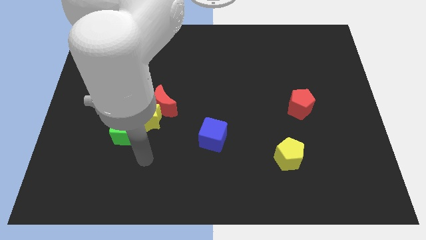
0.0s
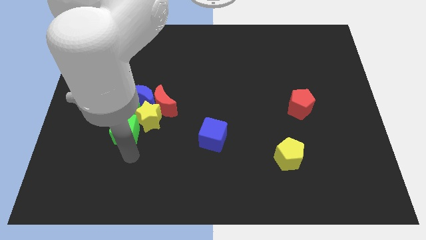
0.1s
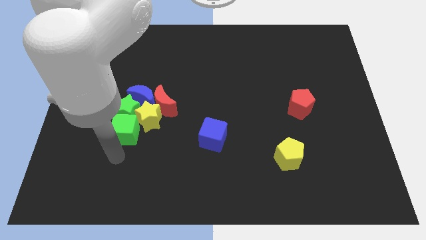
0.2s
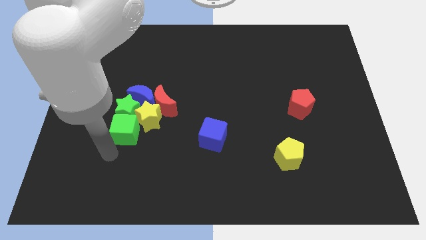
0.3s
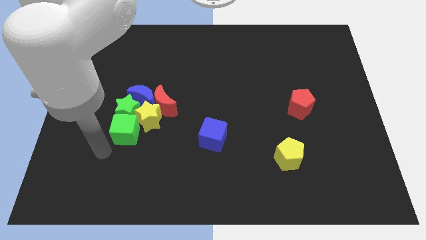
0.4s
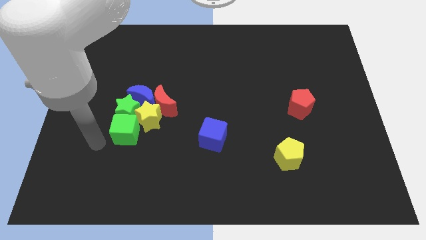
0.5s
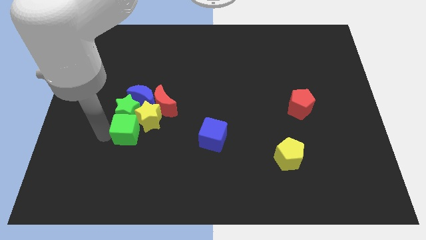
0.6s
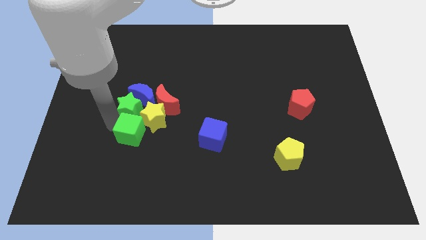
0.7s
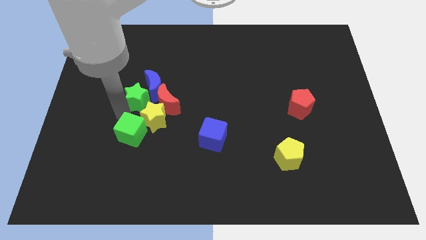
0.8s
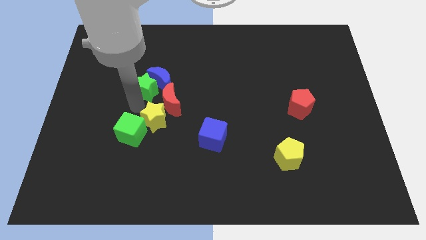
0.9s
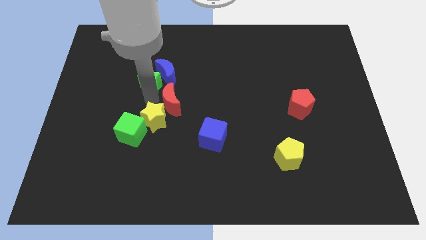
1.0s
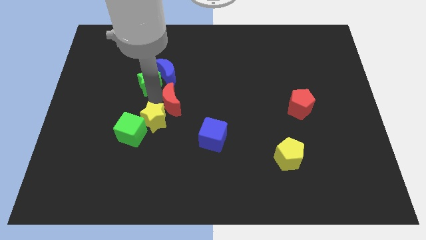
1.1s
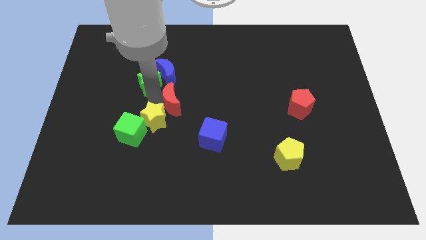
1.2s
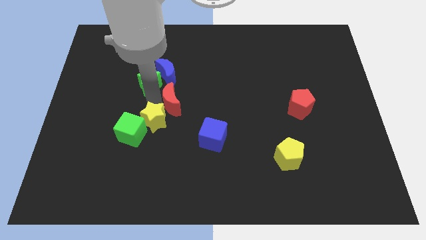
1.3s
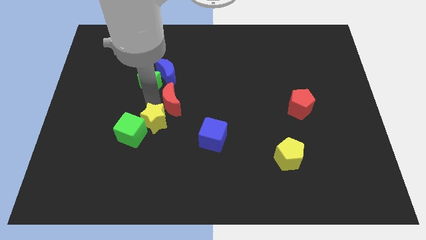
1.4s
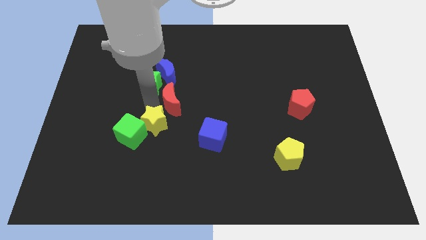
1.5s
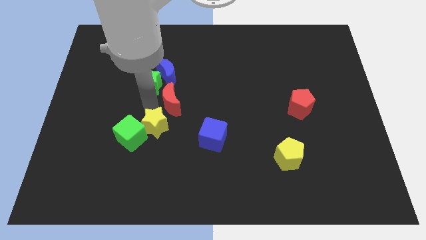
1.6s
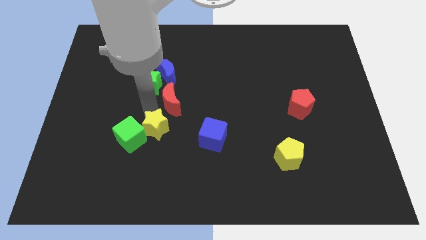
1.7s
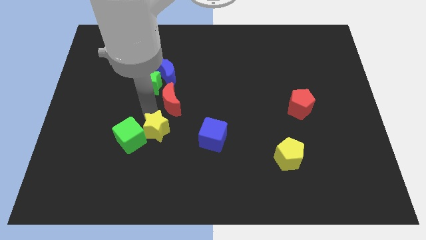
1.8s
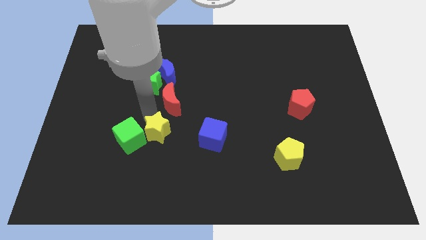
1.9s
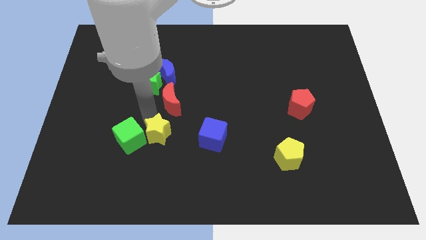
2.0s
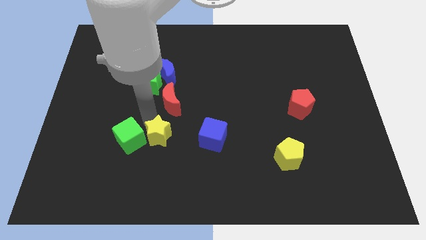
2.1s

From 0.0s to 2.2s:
move the yellow star away from the group of blocks

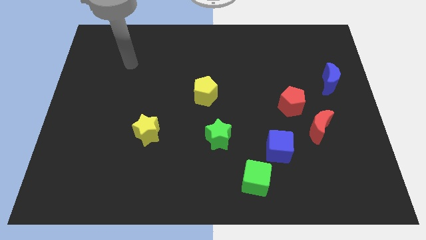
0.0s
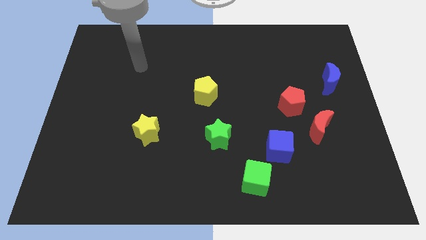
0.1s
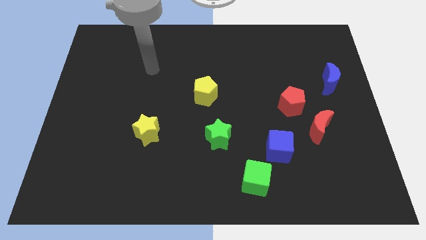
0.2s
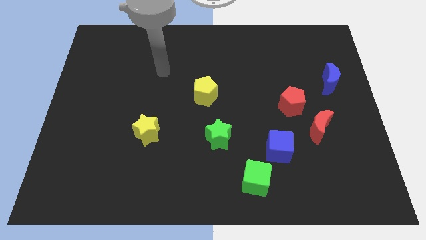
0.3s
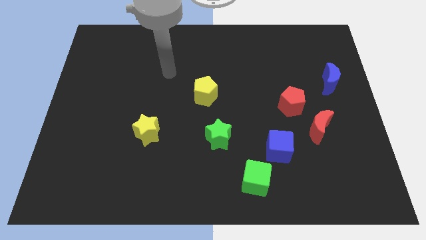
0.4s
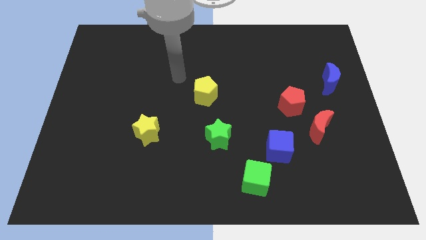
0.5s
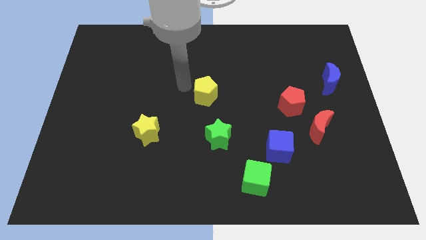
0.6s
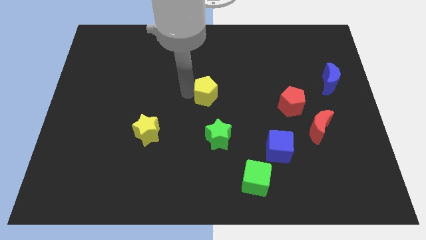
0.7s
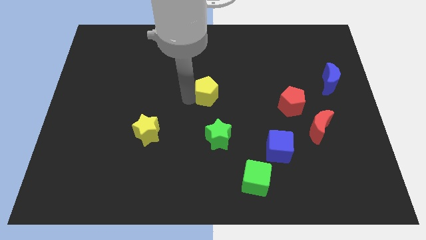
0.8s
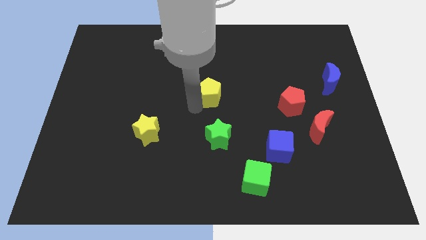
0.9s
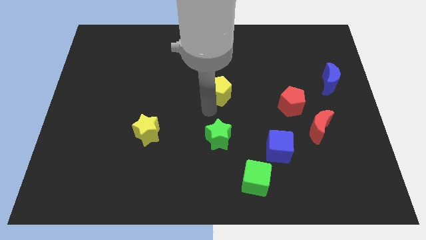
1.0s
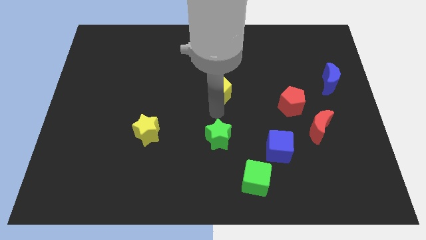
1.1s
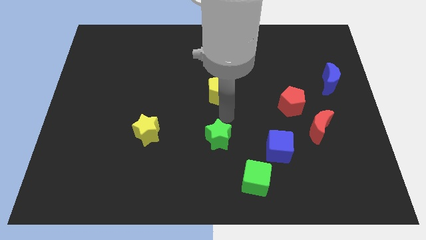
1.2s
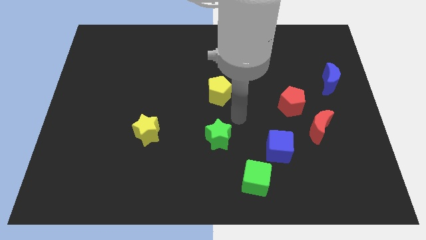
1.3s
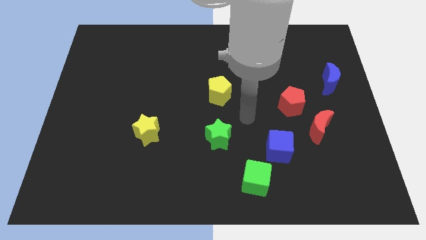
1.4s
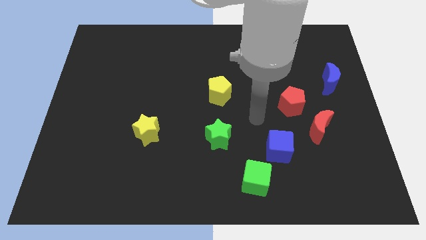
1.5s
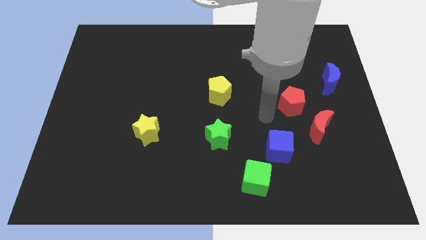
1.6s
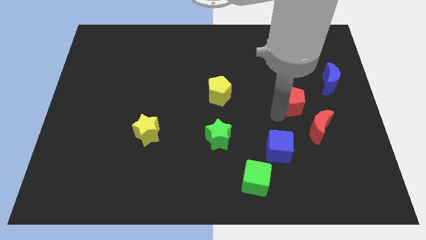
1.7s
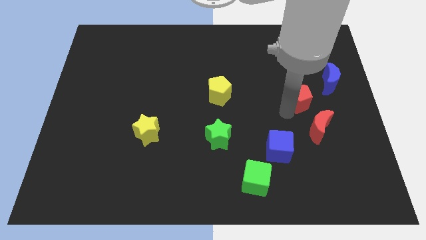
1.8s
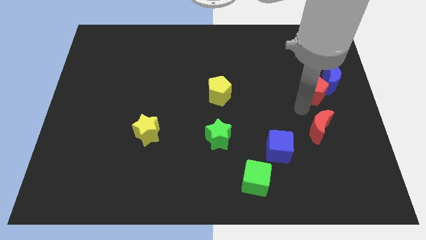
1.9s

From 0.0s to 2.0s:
separate the red moon from the red pentagon

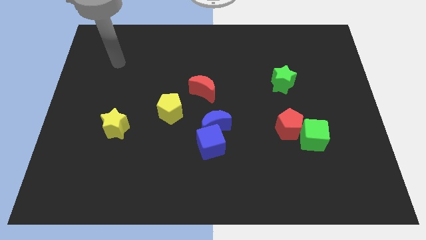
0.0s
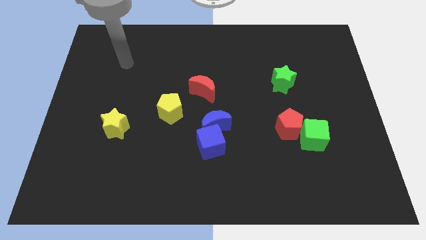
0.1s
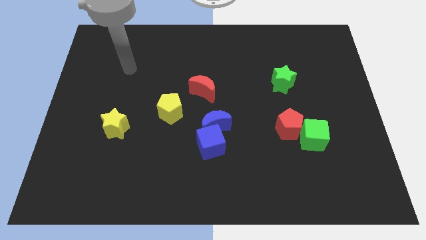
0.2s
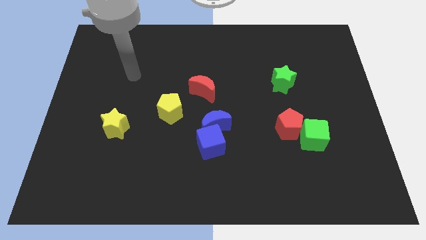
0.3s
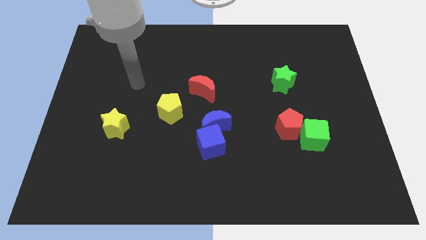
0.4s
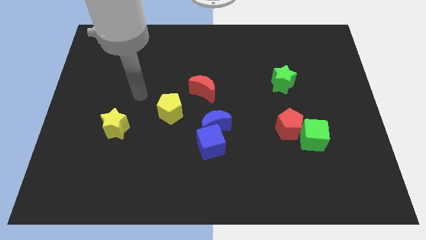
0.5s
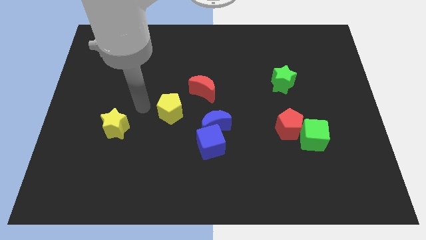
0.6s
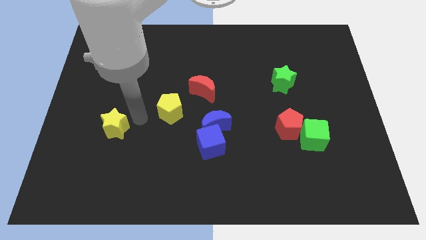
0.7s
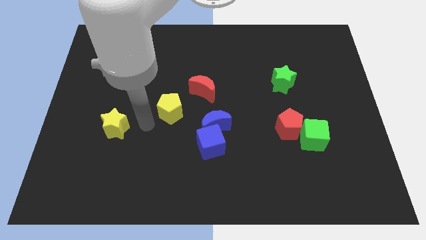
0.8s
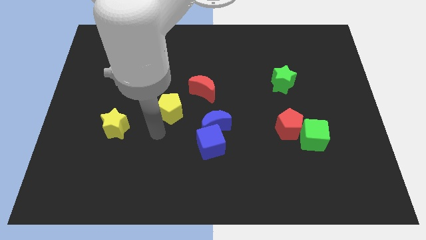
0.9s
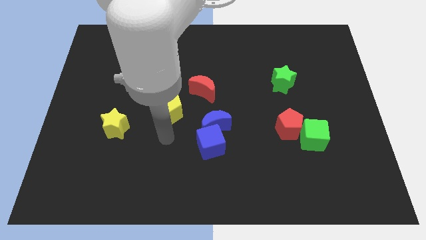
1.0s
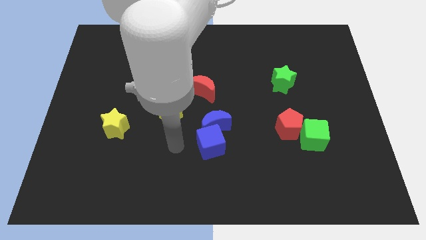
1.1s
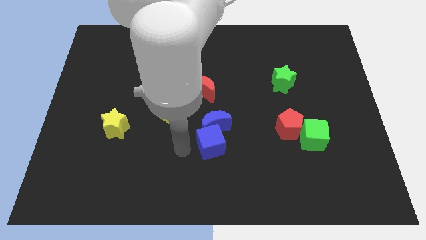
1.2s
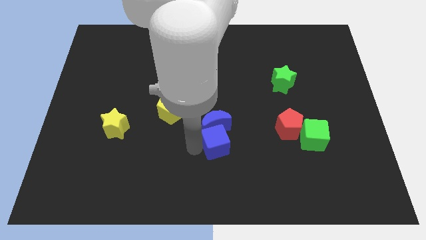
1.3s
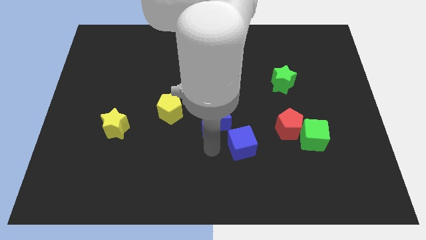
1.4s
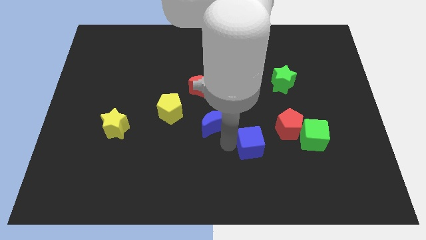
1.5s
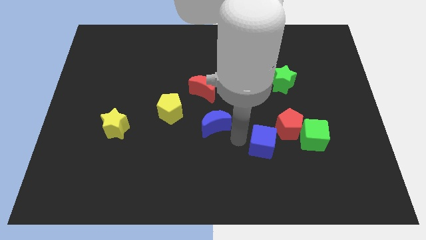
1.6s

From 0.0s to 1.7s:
pull the blue moon apart from the blue cube

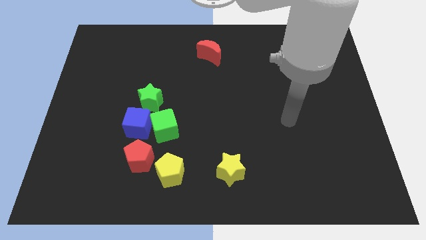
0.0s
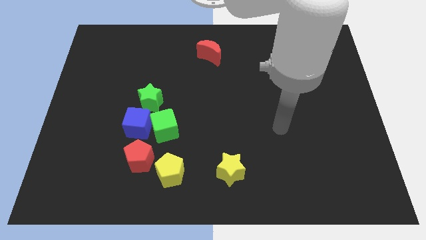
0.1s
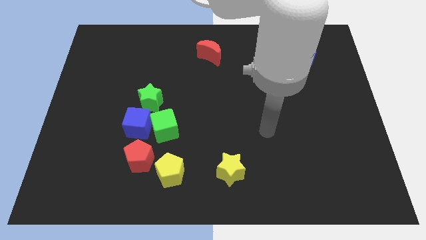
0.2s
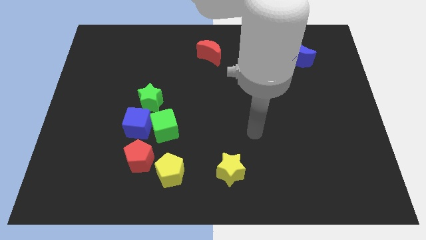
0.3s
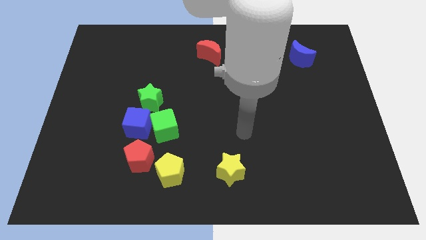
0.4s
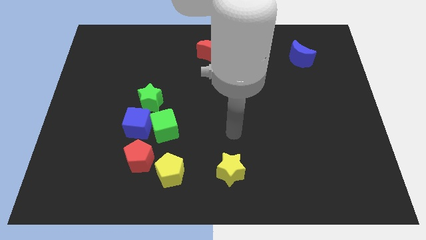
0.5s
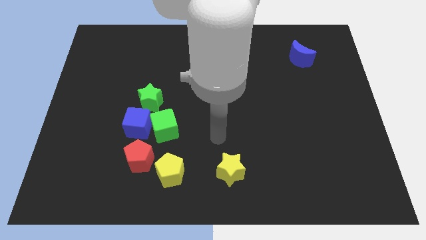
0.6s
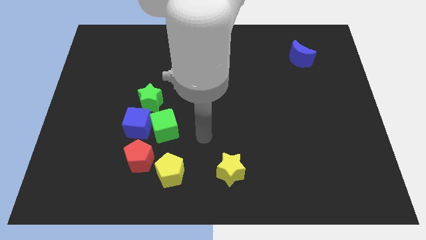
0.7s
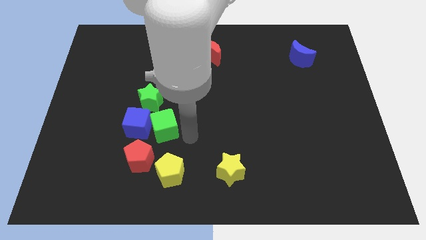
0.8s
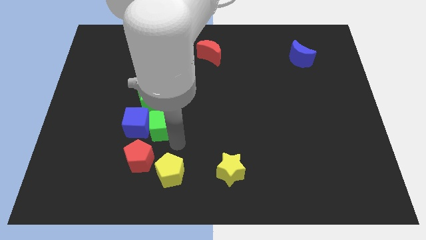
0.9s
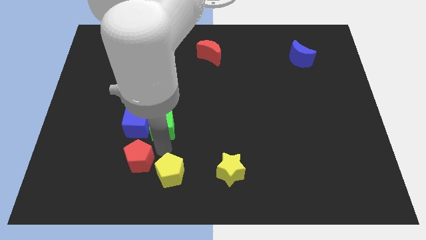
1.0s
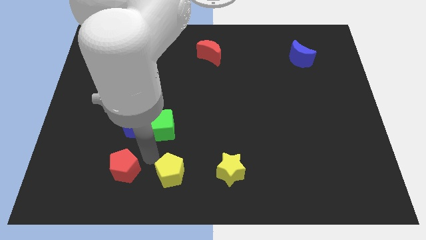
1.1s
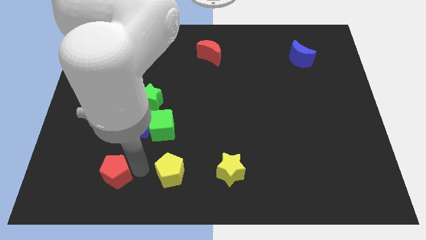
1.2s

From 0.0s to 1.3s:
move the yellow pentagon away from the red pentagon

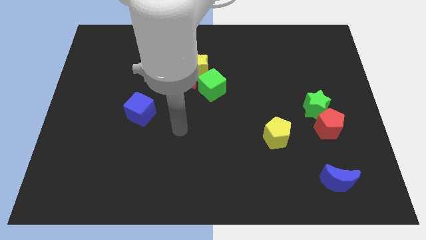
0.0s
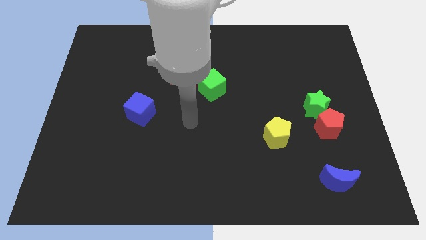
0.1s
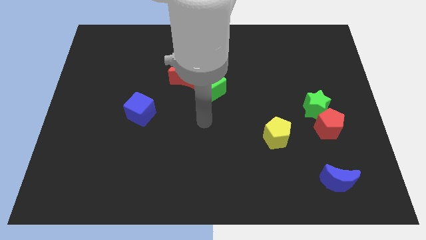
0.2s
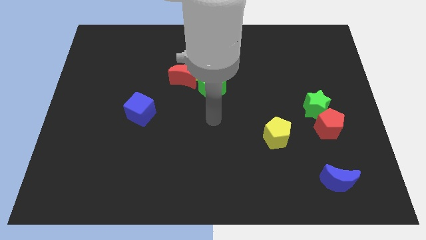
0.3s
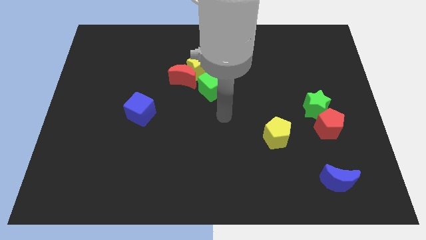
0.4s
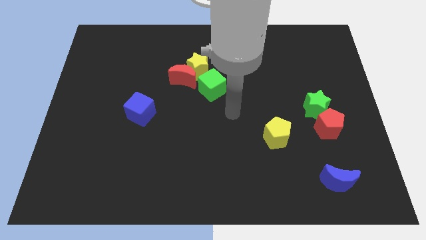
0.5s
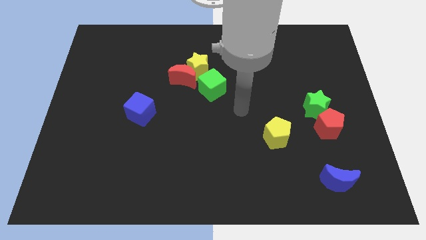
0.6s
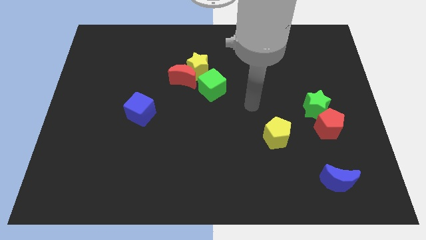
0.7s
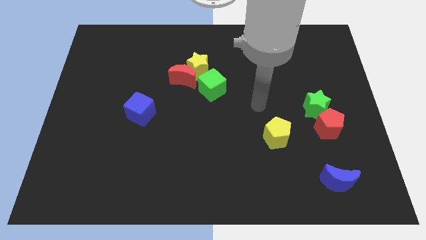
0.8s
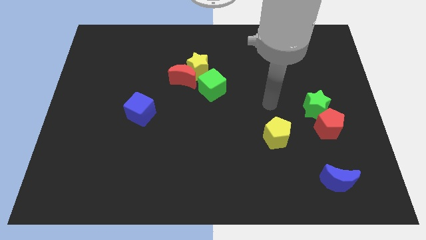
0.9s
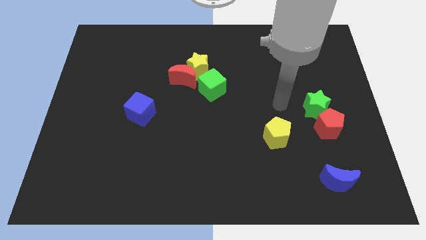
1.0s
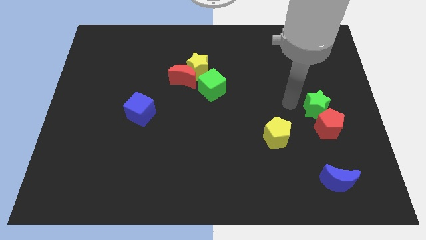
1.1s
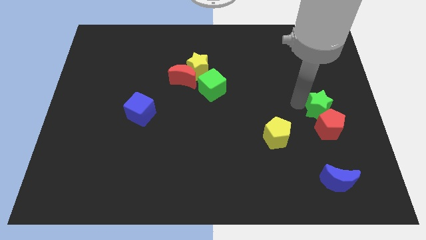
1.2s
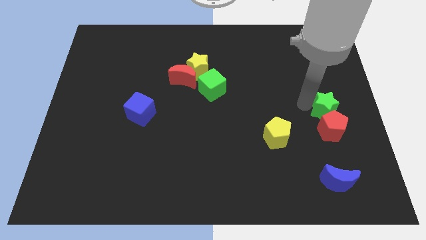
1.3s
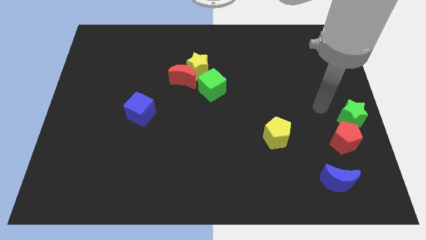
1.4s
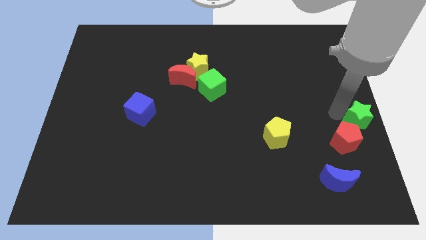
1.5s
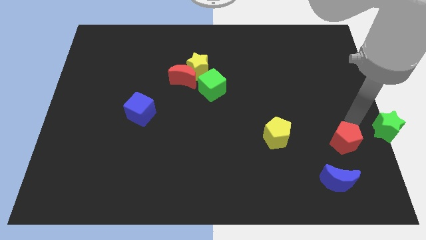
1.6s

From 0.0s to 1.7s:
separate the red pentagon from the green star

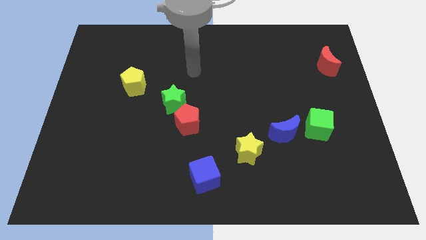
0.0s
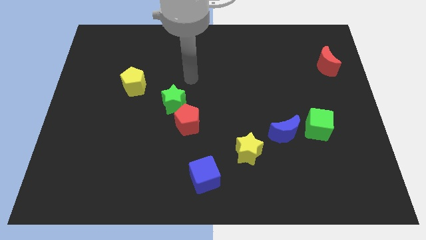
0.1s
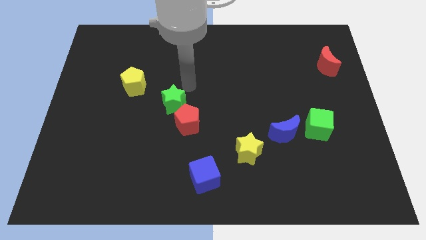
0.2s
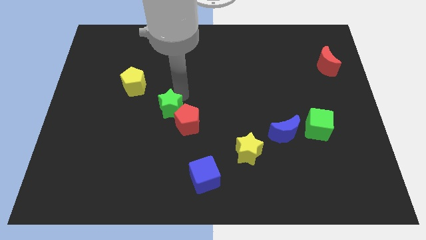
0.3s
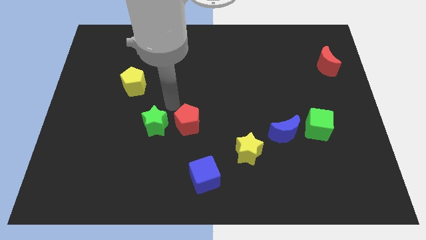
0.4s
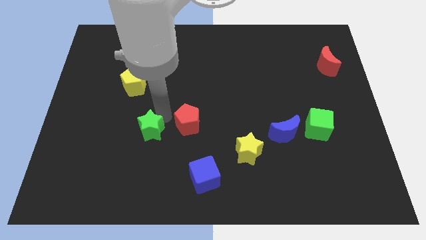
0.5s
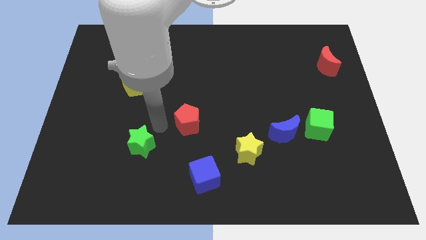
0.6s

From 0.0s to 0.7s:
move the red pentagon away from the green star
